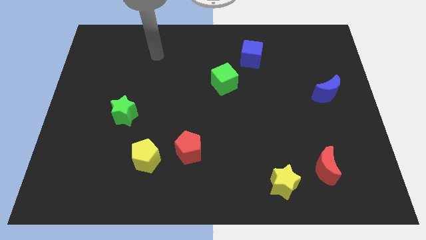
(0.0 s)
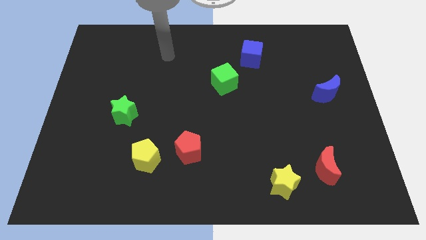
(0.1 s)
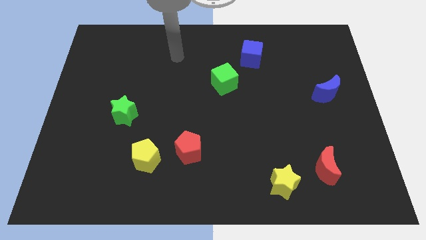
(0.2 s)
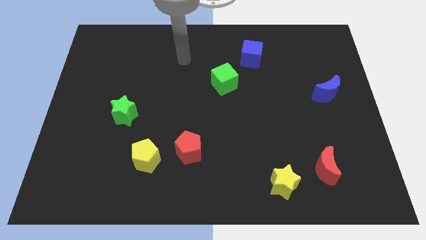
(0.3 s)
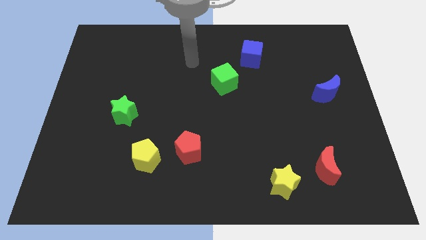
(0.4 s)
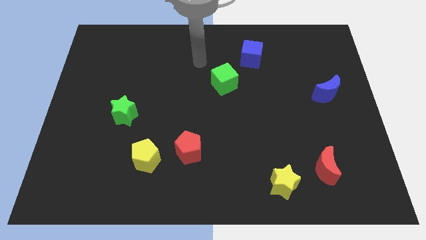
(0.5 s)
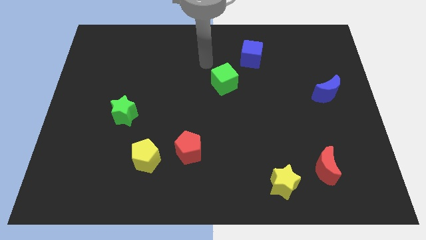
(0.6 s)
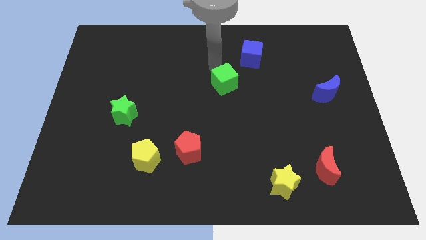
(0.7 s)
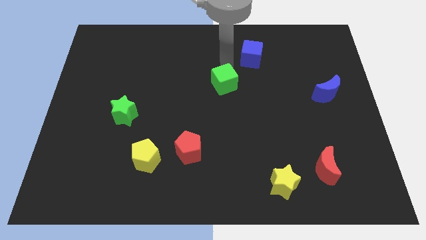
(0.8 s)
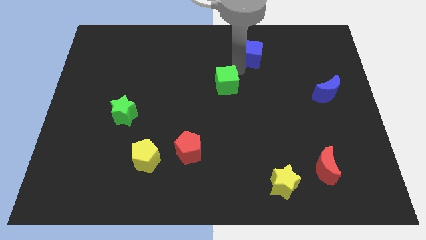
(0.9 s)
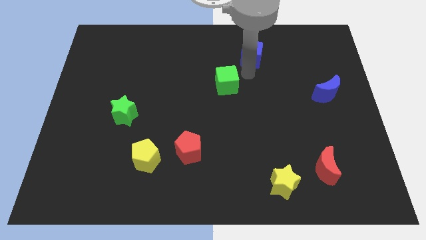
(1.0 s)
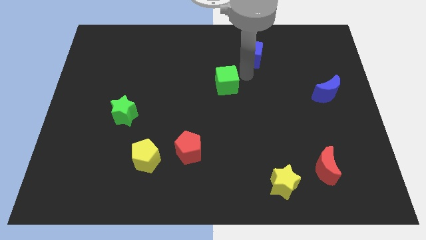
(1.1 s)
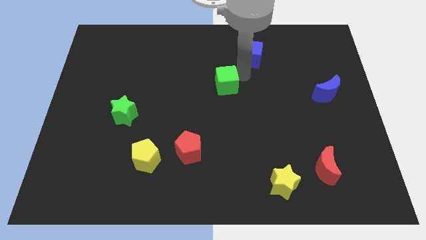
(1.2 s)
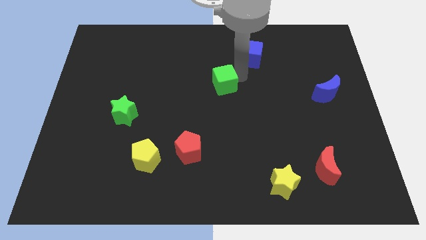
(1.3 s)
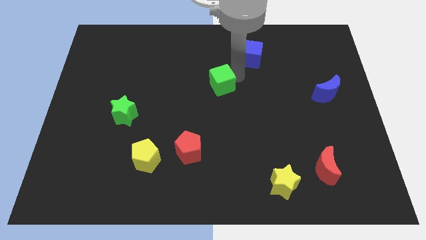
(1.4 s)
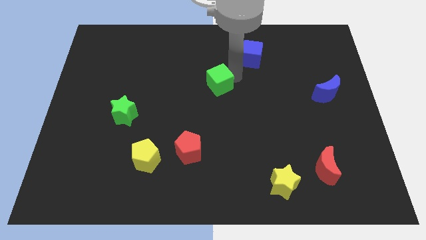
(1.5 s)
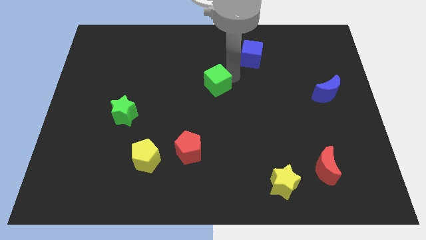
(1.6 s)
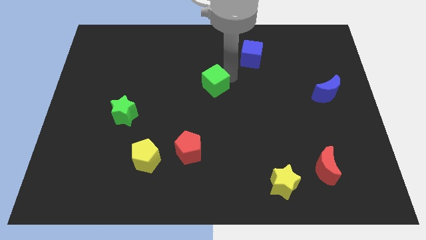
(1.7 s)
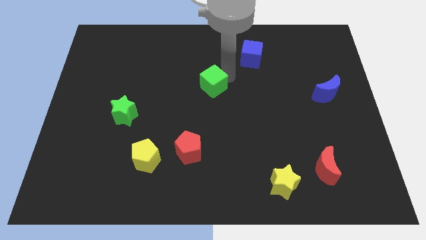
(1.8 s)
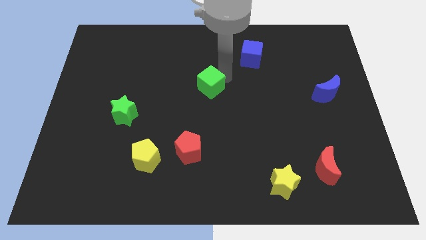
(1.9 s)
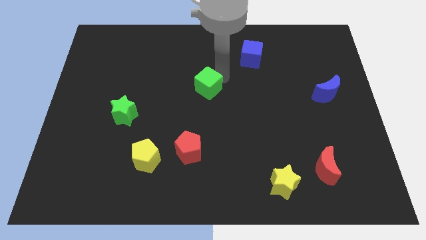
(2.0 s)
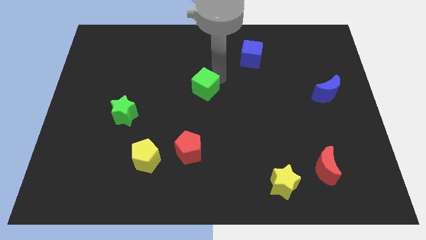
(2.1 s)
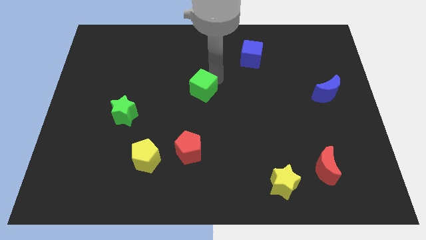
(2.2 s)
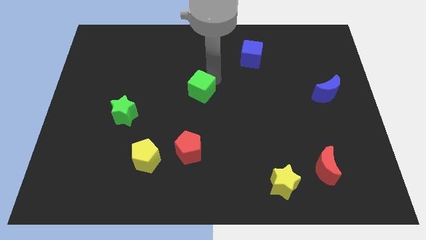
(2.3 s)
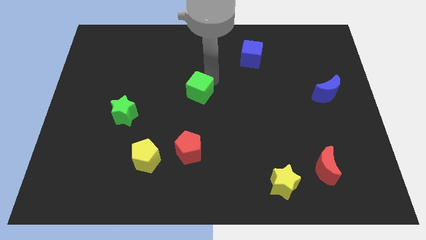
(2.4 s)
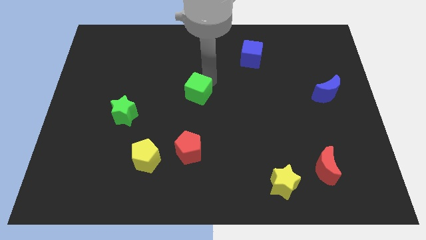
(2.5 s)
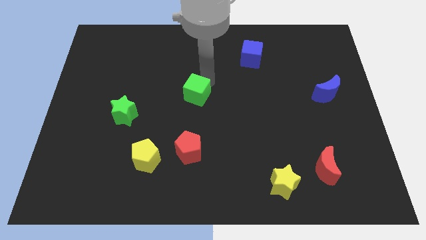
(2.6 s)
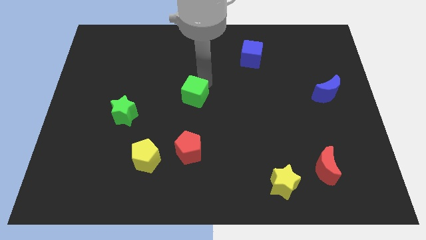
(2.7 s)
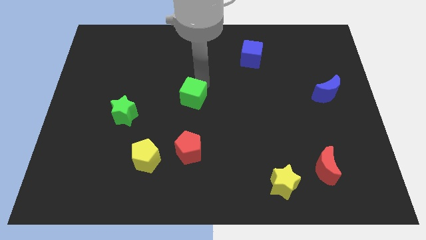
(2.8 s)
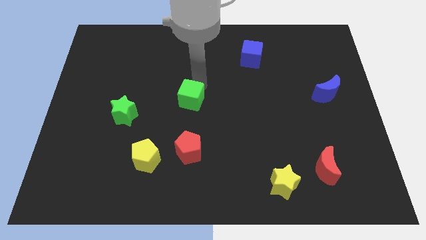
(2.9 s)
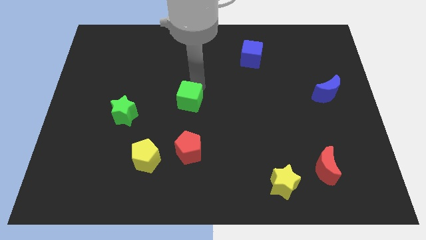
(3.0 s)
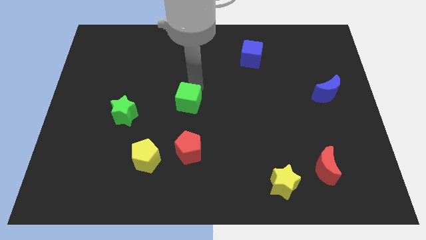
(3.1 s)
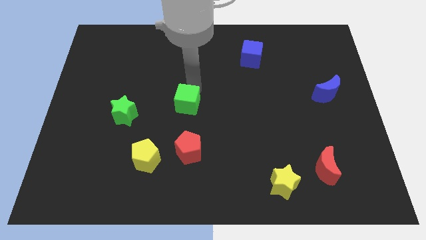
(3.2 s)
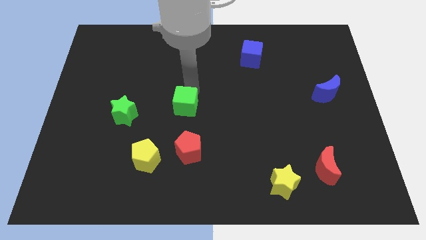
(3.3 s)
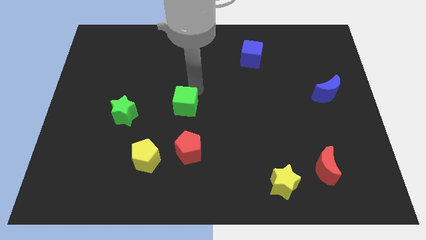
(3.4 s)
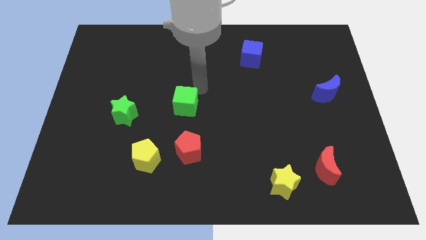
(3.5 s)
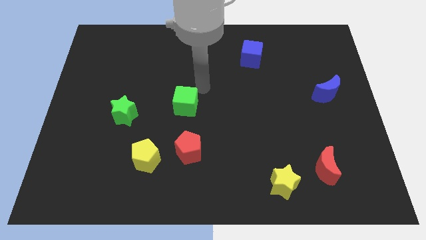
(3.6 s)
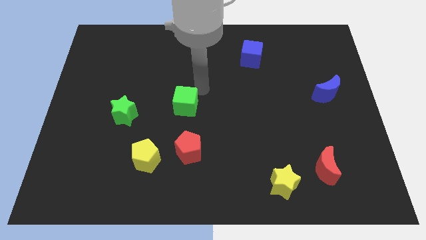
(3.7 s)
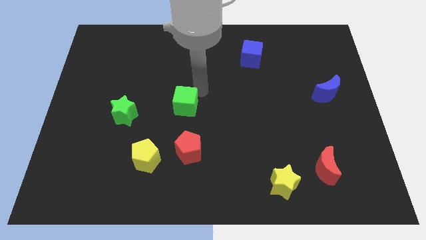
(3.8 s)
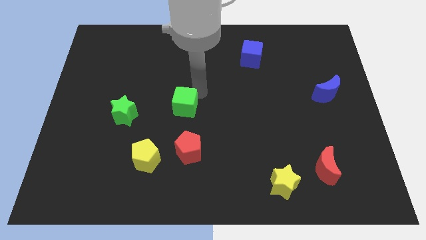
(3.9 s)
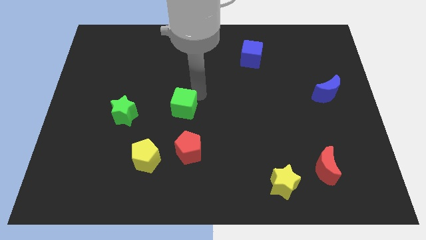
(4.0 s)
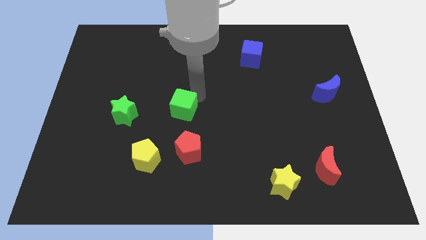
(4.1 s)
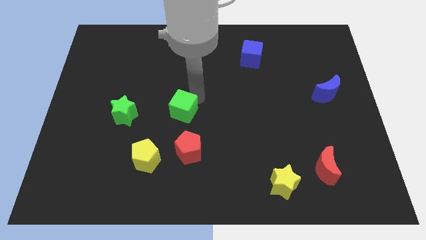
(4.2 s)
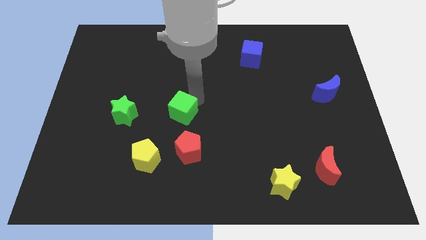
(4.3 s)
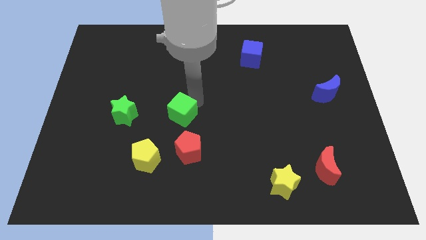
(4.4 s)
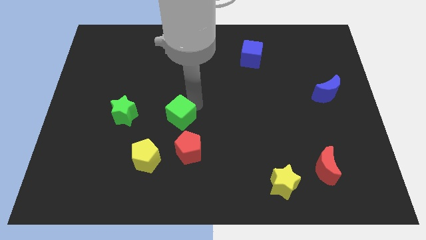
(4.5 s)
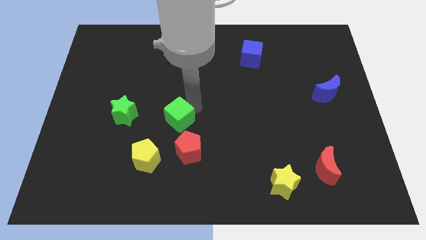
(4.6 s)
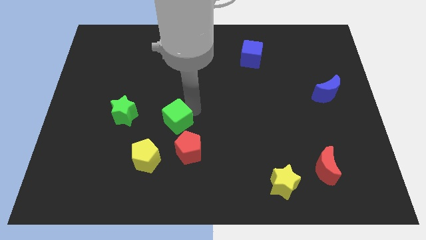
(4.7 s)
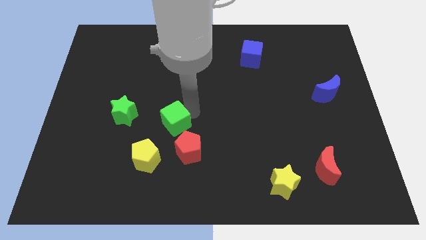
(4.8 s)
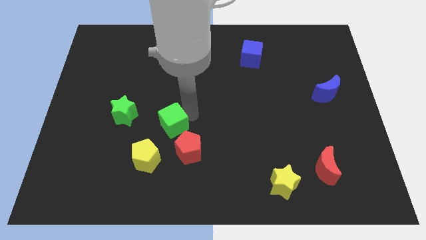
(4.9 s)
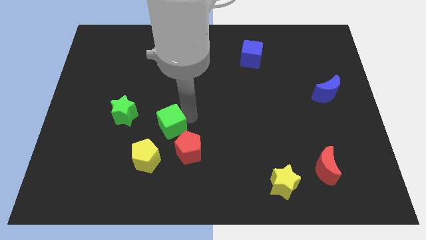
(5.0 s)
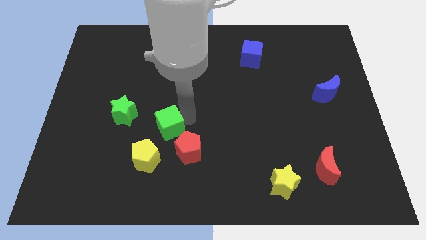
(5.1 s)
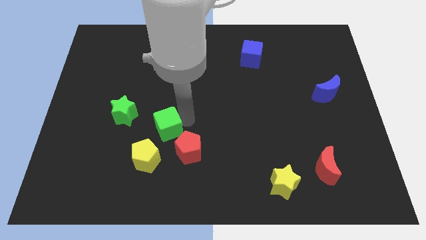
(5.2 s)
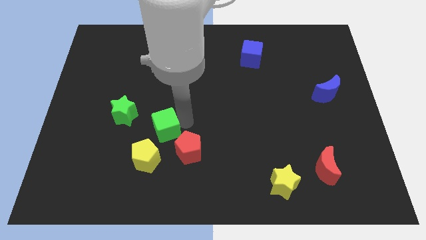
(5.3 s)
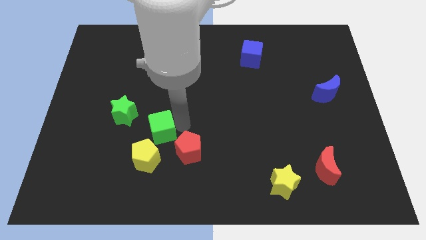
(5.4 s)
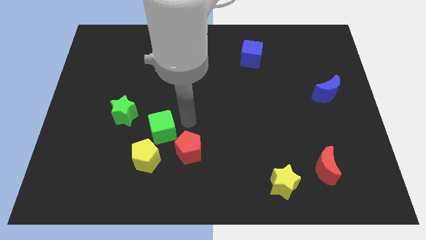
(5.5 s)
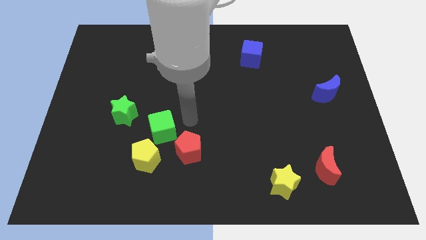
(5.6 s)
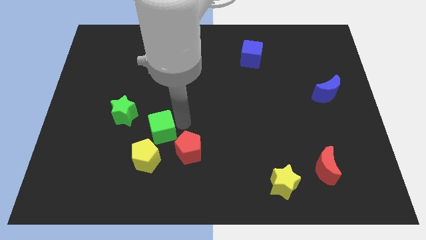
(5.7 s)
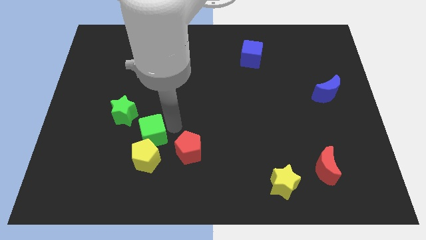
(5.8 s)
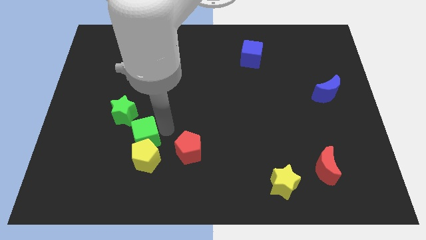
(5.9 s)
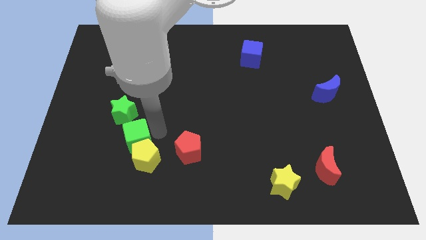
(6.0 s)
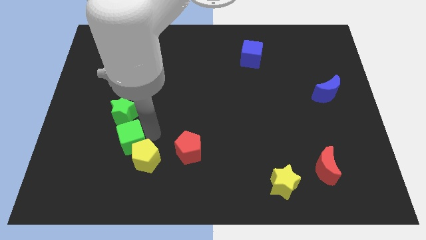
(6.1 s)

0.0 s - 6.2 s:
put the green cube to the left of the yellow pentagon

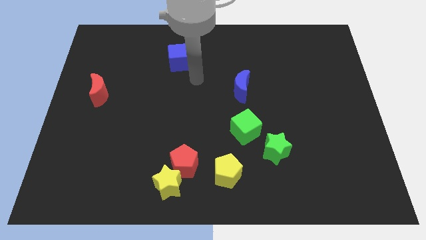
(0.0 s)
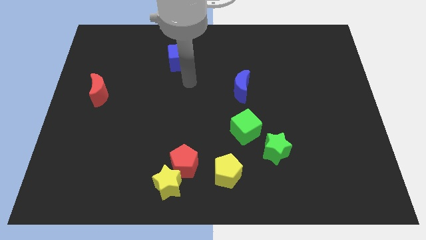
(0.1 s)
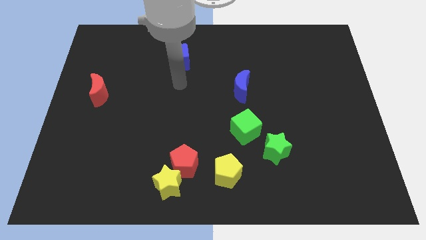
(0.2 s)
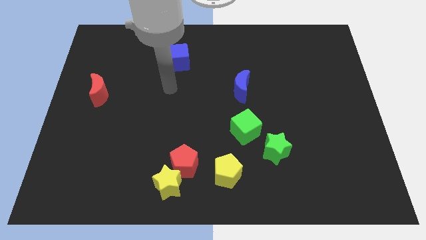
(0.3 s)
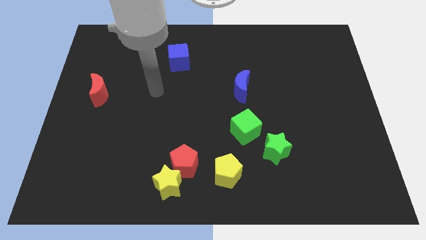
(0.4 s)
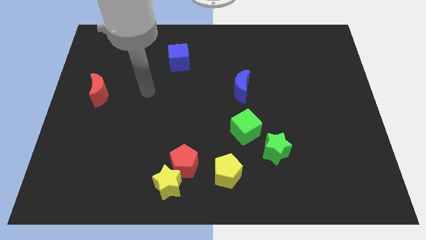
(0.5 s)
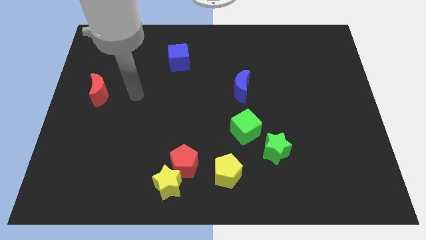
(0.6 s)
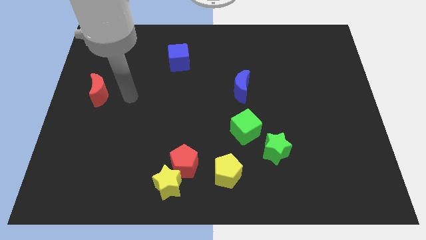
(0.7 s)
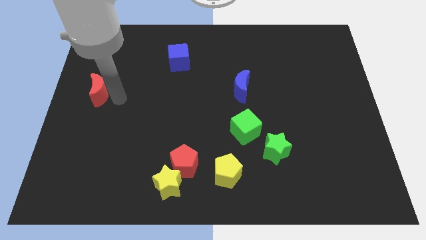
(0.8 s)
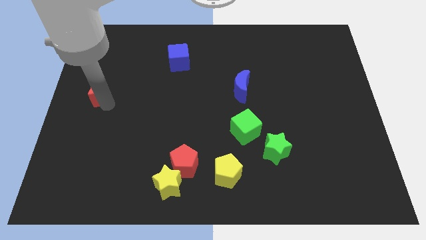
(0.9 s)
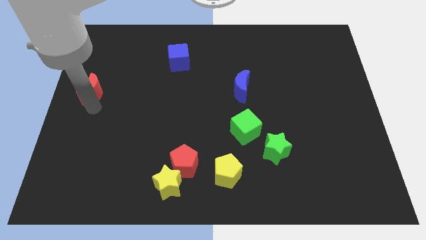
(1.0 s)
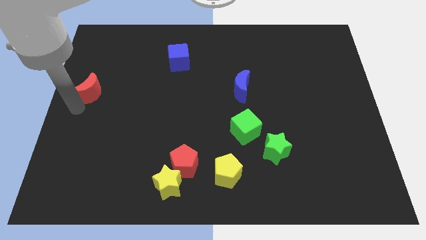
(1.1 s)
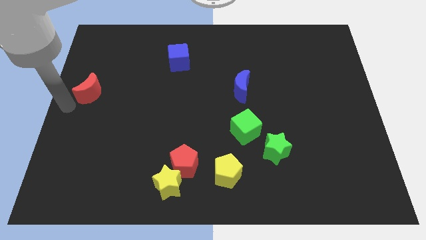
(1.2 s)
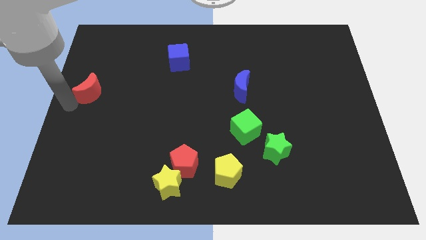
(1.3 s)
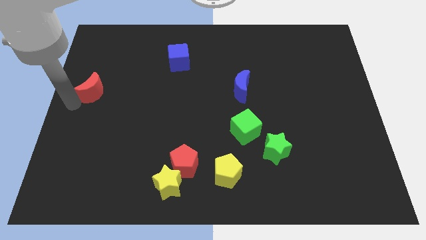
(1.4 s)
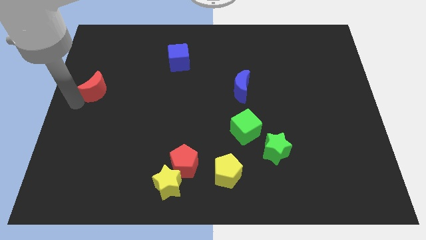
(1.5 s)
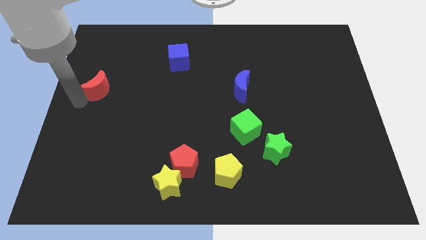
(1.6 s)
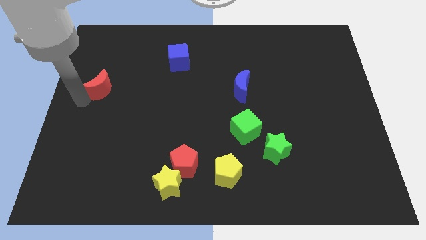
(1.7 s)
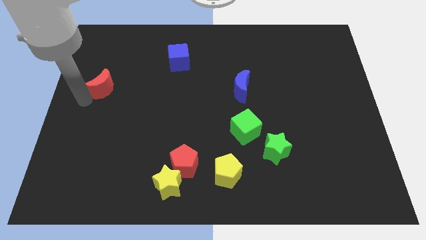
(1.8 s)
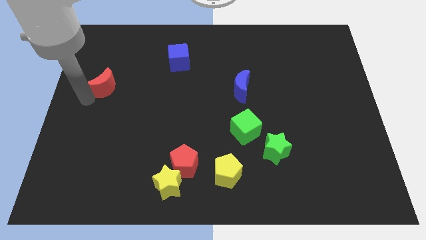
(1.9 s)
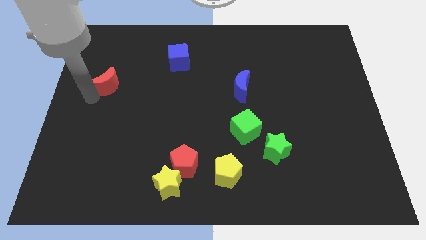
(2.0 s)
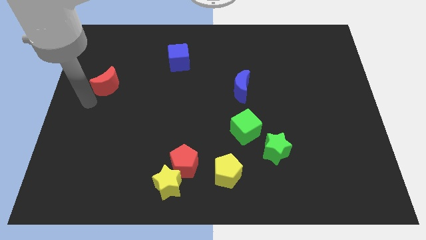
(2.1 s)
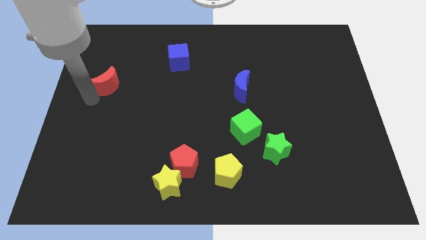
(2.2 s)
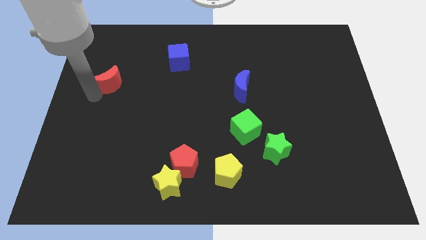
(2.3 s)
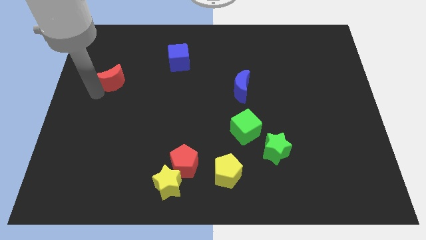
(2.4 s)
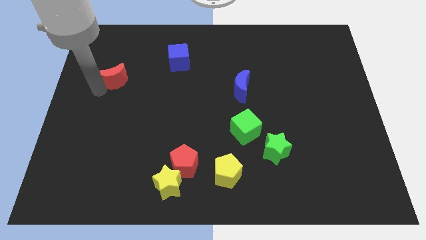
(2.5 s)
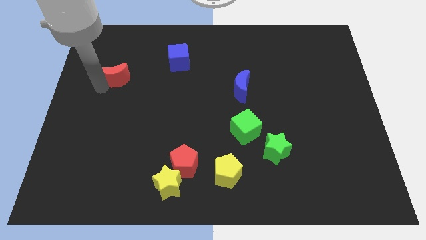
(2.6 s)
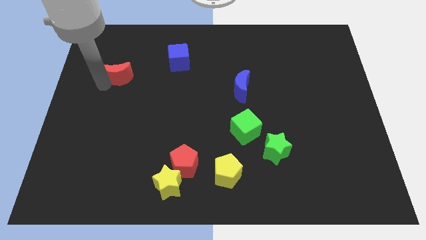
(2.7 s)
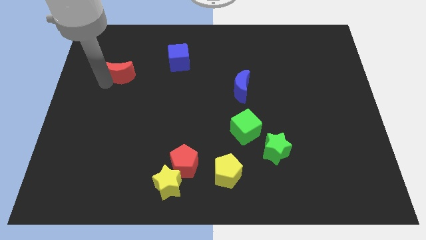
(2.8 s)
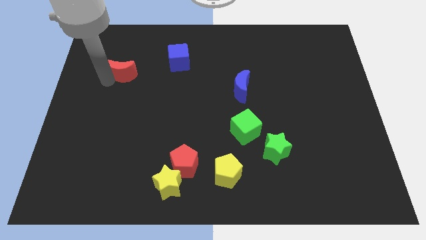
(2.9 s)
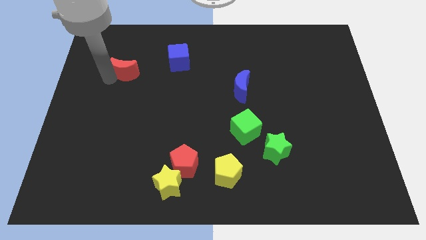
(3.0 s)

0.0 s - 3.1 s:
put the red moon left of the blue cube
